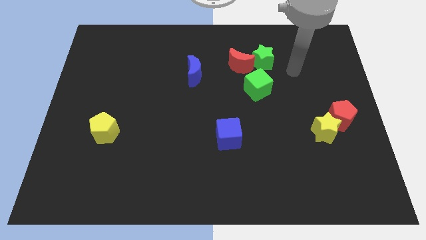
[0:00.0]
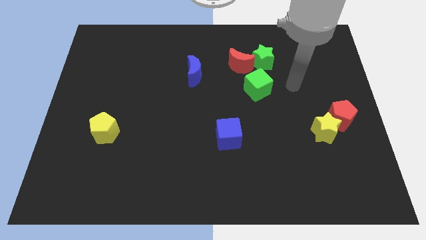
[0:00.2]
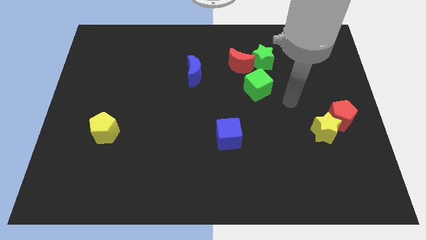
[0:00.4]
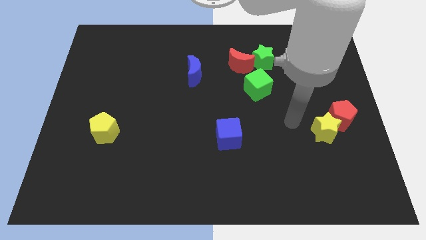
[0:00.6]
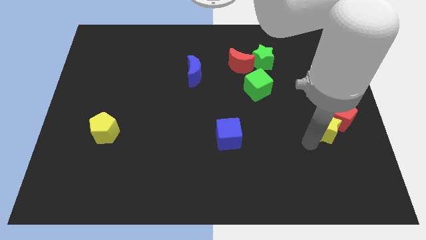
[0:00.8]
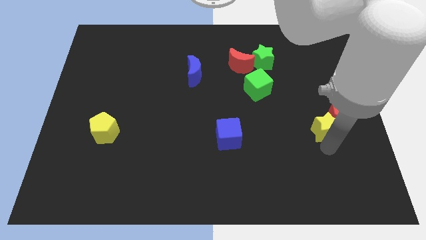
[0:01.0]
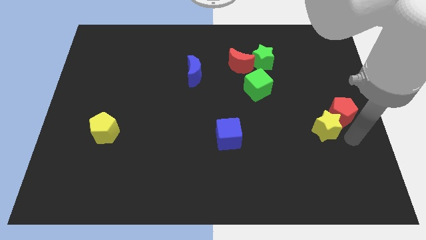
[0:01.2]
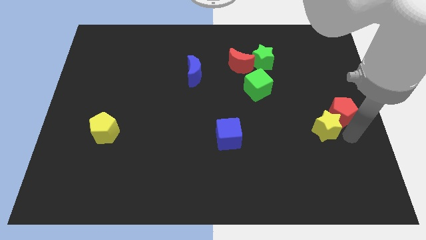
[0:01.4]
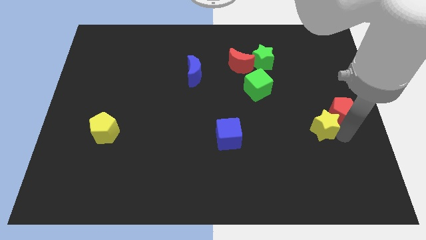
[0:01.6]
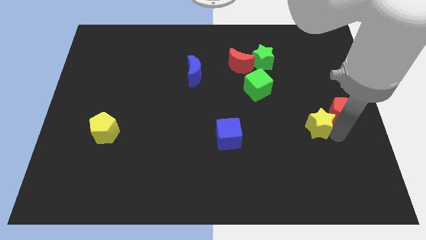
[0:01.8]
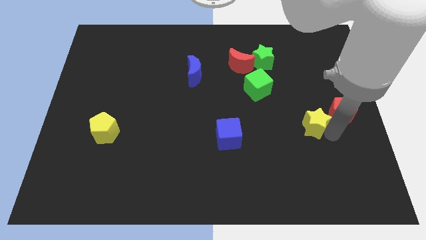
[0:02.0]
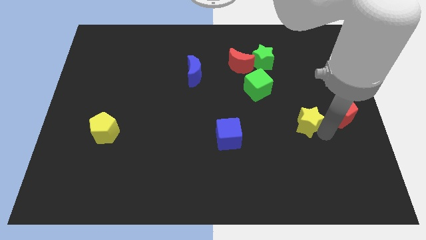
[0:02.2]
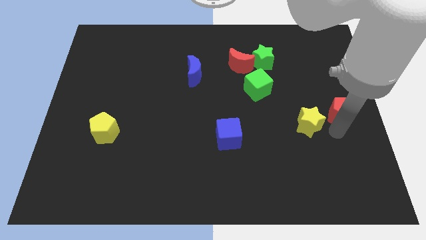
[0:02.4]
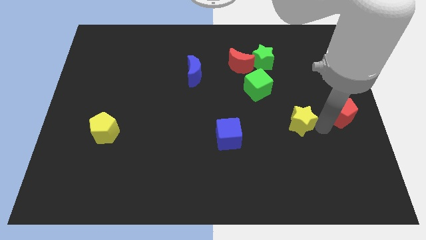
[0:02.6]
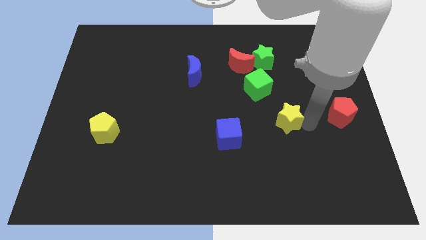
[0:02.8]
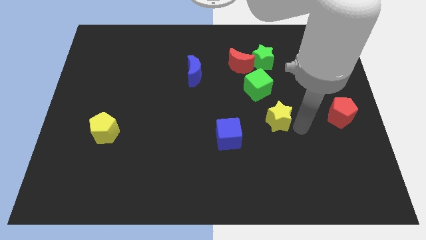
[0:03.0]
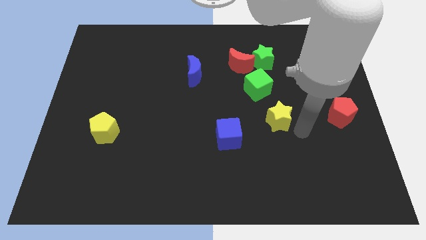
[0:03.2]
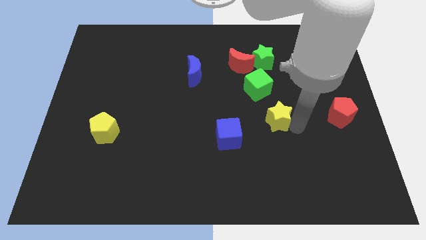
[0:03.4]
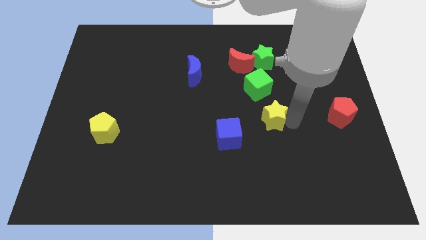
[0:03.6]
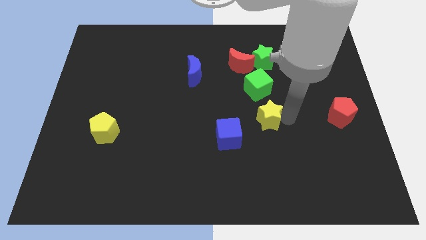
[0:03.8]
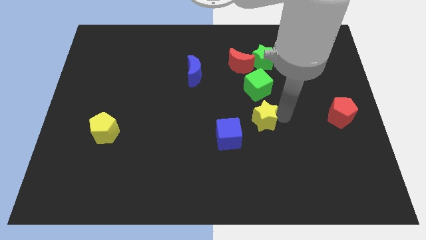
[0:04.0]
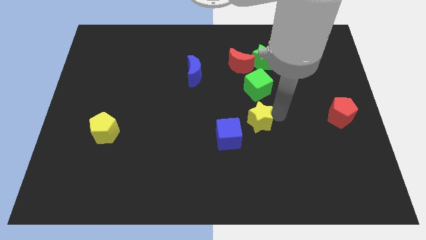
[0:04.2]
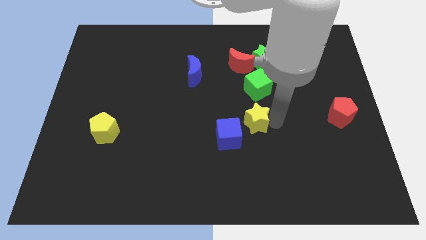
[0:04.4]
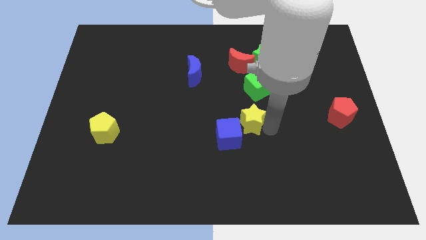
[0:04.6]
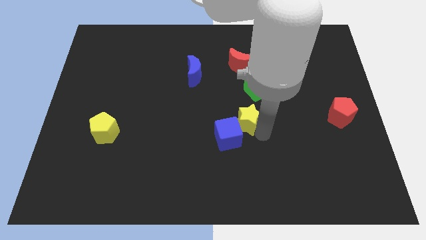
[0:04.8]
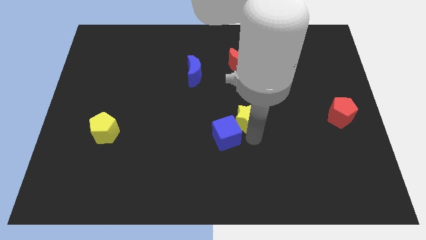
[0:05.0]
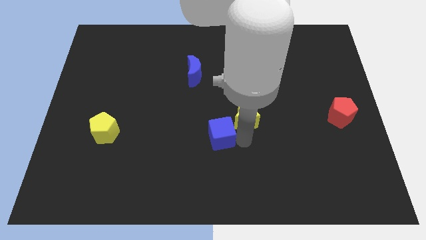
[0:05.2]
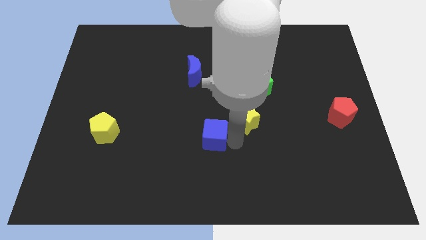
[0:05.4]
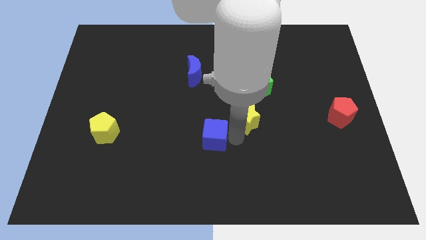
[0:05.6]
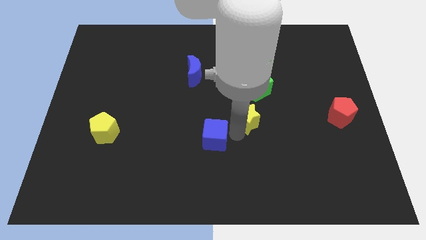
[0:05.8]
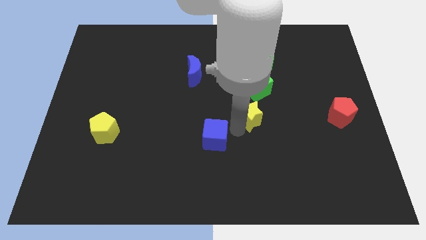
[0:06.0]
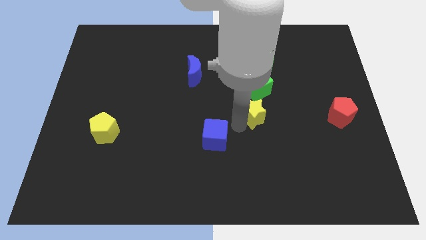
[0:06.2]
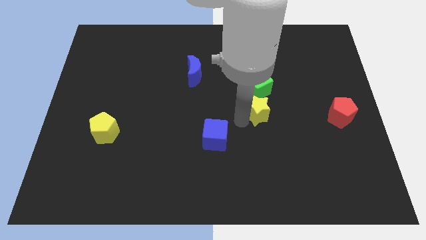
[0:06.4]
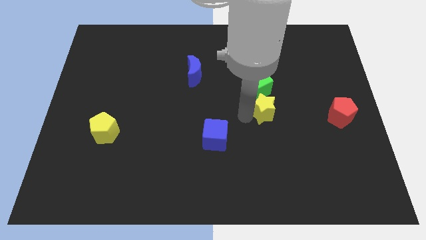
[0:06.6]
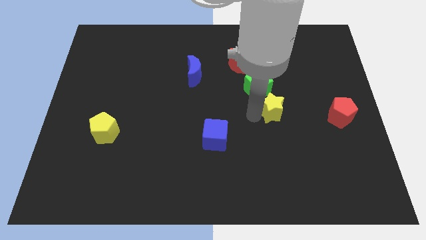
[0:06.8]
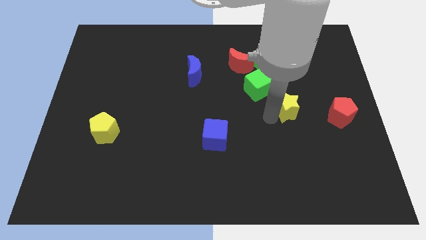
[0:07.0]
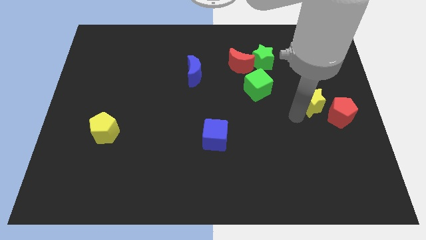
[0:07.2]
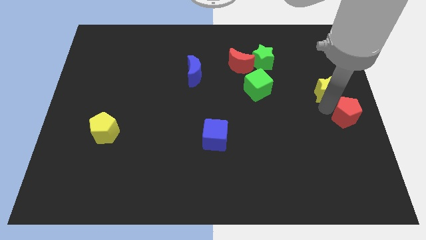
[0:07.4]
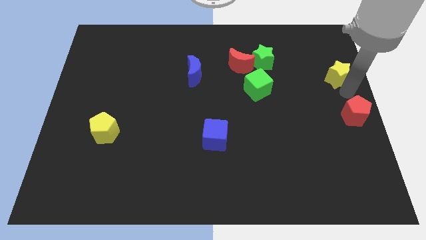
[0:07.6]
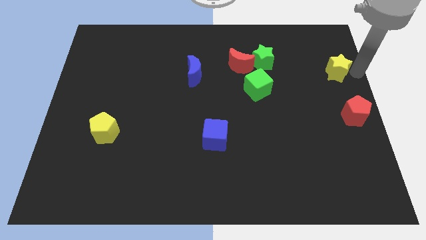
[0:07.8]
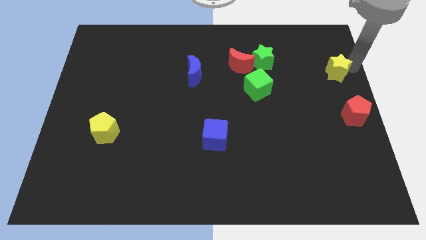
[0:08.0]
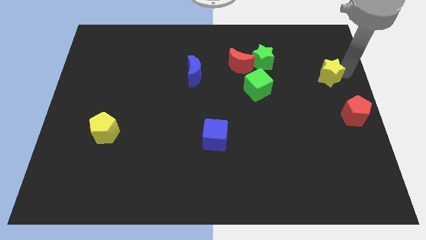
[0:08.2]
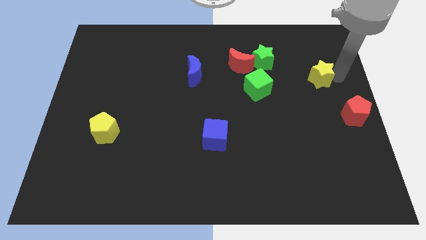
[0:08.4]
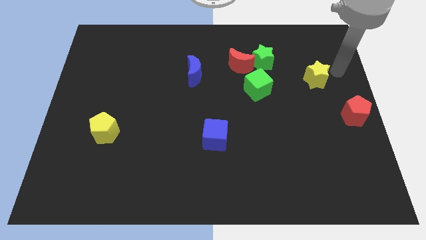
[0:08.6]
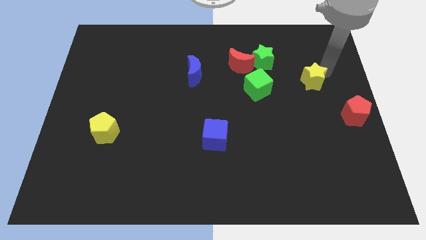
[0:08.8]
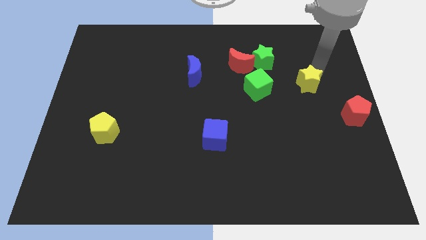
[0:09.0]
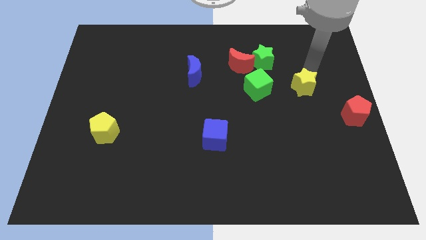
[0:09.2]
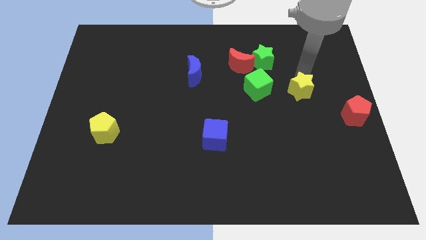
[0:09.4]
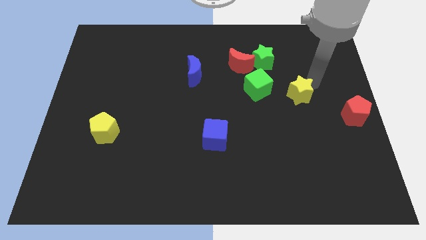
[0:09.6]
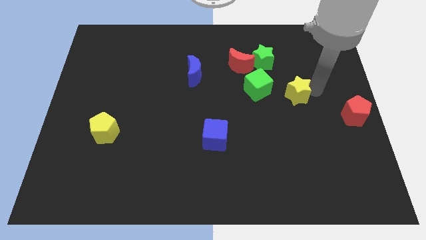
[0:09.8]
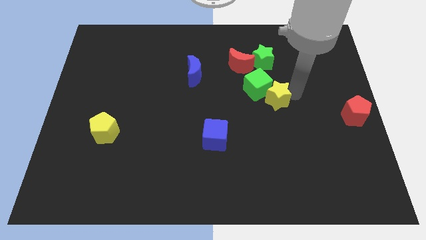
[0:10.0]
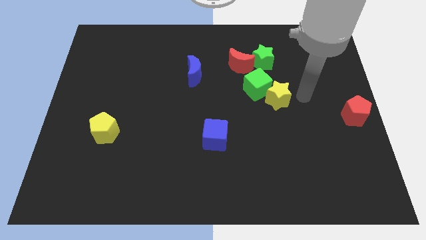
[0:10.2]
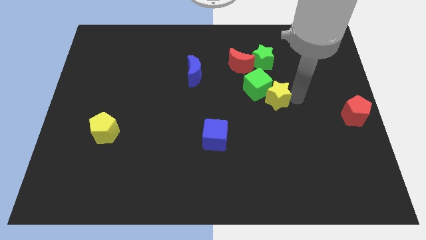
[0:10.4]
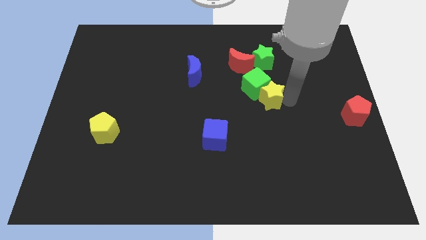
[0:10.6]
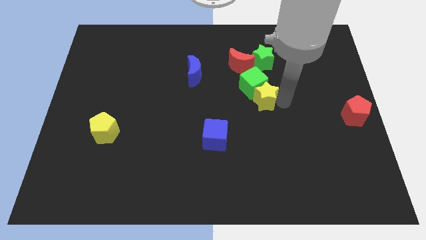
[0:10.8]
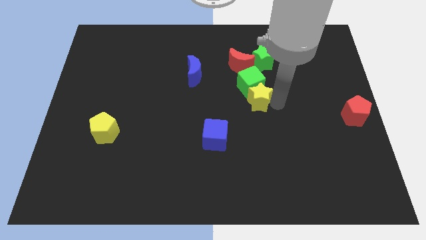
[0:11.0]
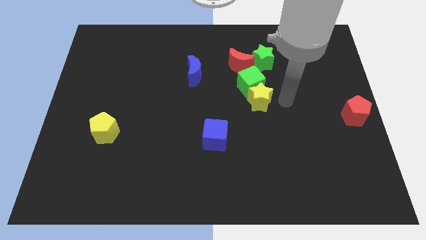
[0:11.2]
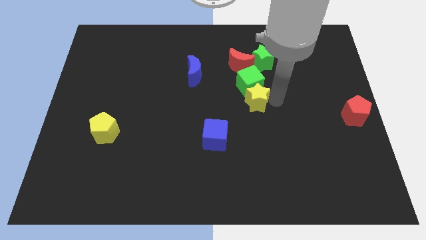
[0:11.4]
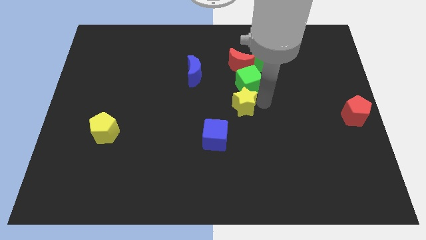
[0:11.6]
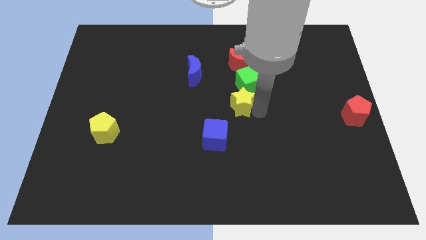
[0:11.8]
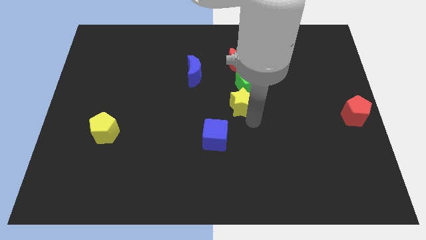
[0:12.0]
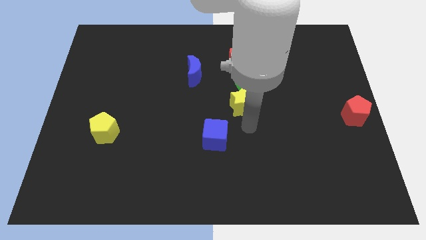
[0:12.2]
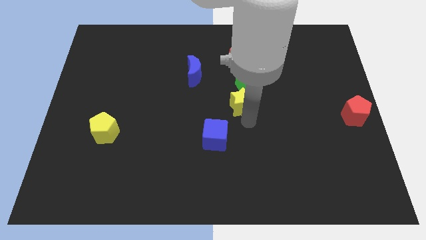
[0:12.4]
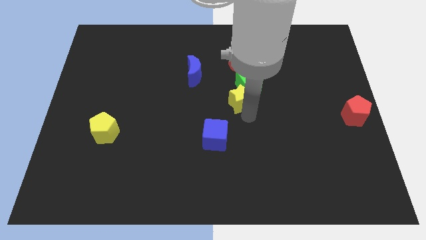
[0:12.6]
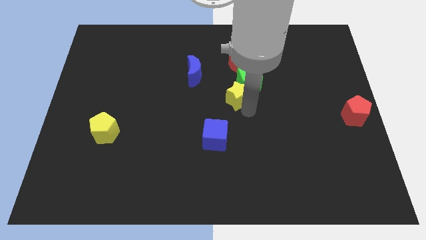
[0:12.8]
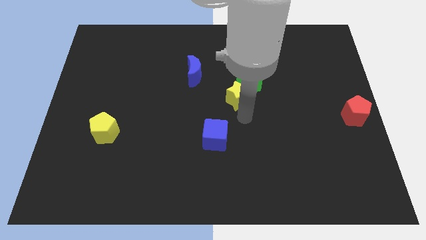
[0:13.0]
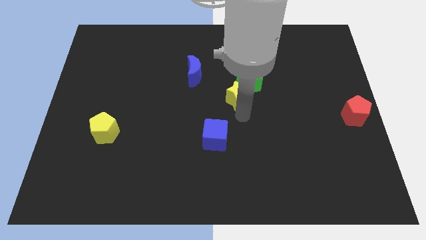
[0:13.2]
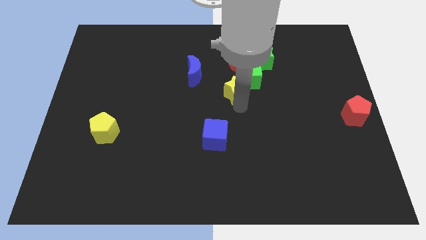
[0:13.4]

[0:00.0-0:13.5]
move the yellow star up and to the left

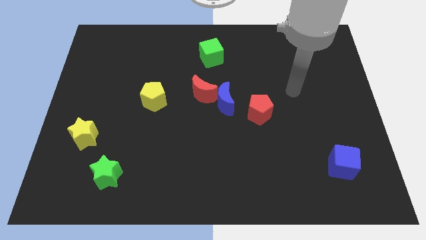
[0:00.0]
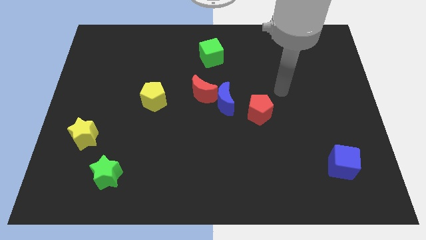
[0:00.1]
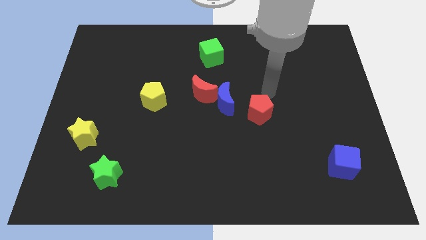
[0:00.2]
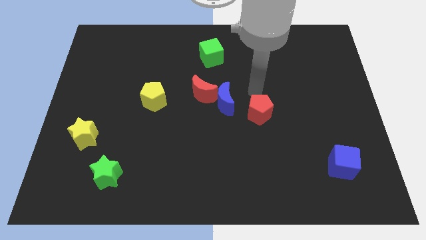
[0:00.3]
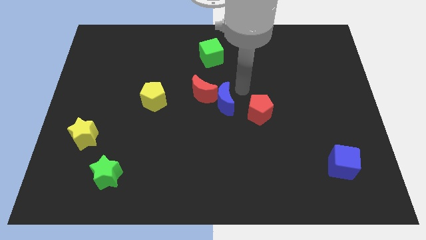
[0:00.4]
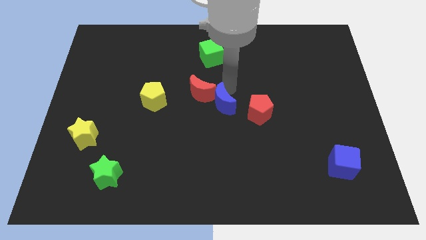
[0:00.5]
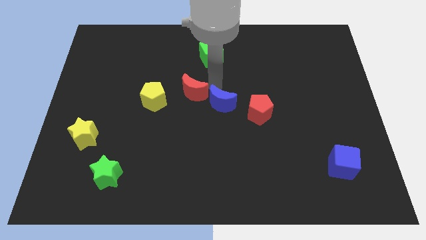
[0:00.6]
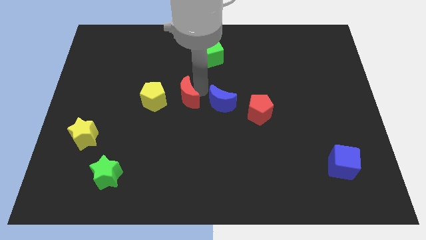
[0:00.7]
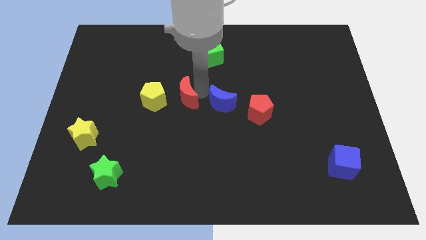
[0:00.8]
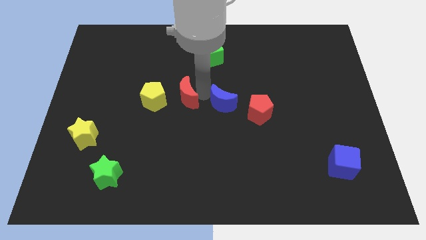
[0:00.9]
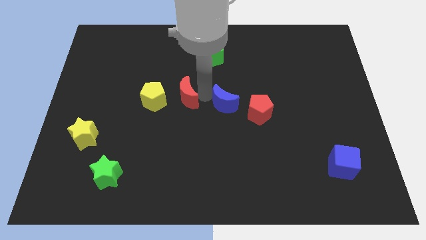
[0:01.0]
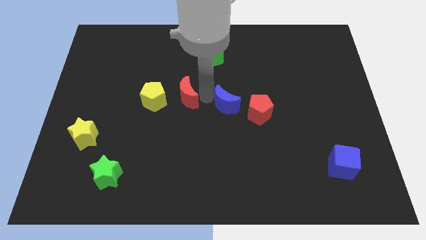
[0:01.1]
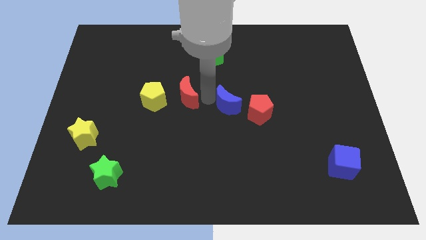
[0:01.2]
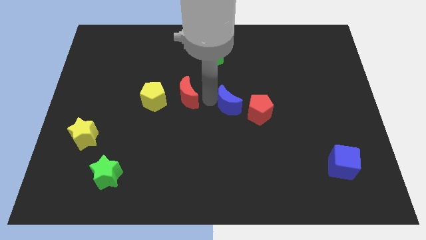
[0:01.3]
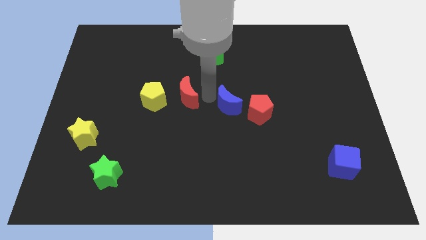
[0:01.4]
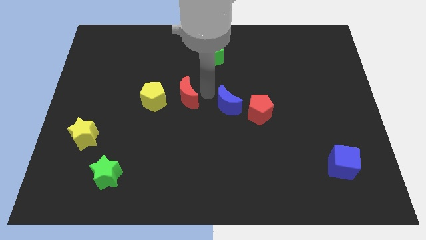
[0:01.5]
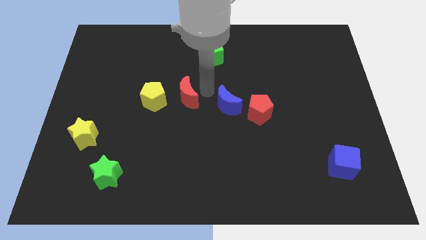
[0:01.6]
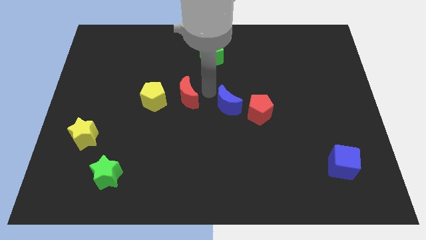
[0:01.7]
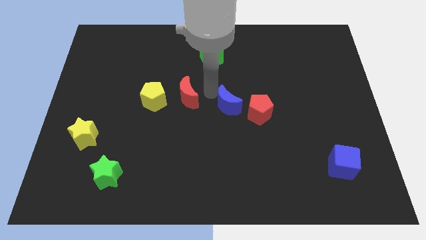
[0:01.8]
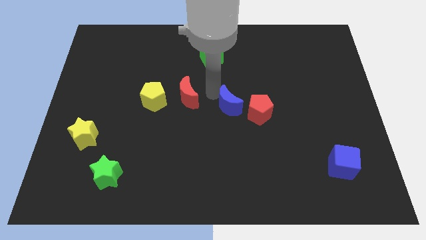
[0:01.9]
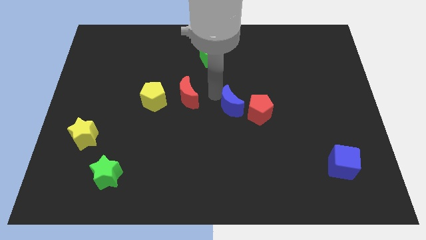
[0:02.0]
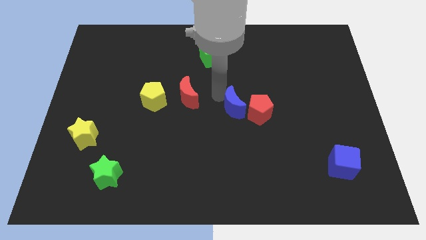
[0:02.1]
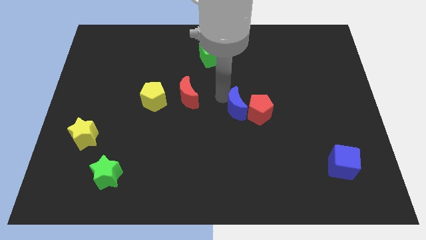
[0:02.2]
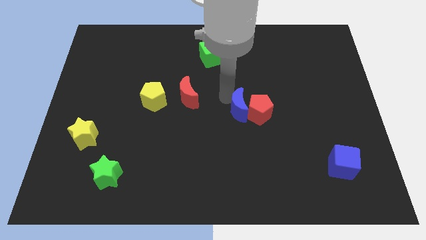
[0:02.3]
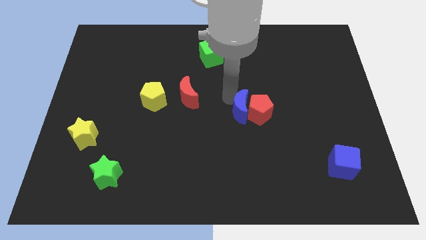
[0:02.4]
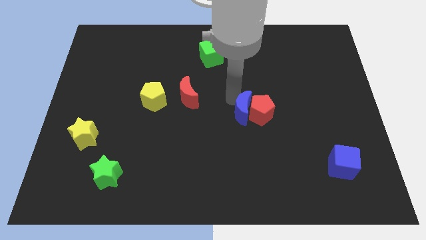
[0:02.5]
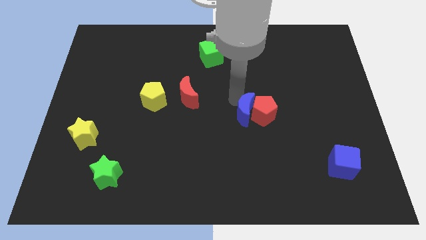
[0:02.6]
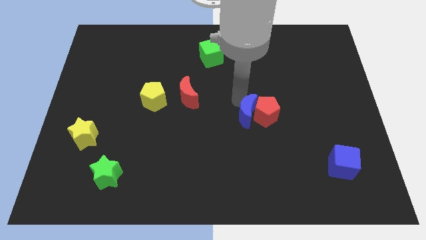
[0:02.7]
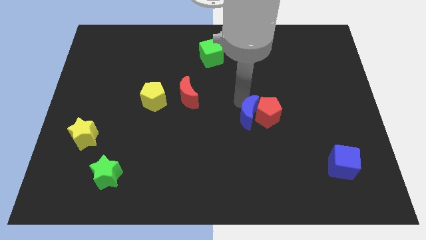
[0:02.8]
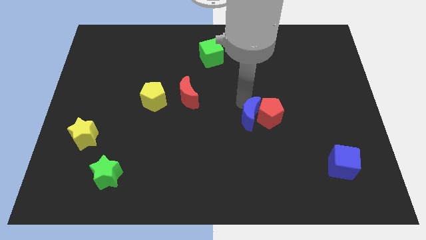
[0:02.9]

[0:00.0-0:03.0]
slightly slide the blue moon down and to the right diagonally
